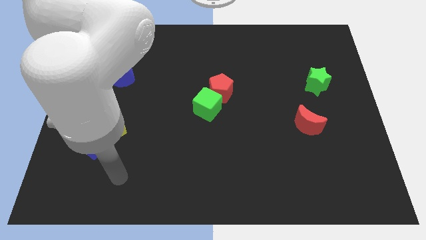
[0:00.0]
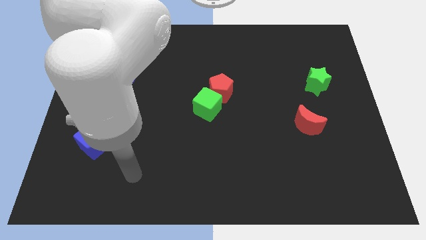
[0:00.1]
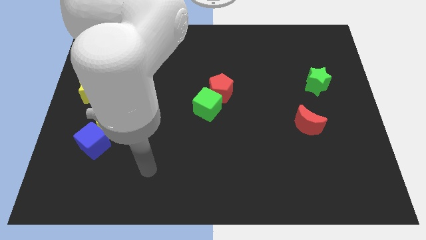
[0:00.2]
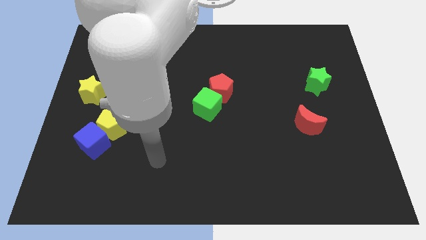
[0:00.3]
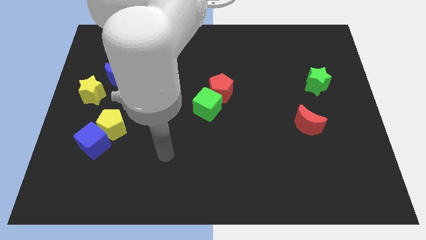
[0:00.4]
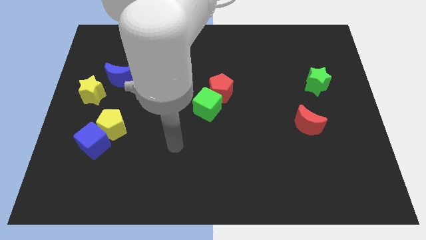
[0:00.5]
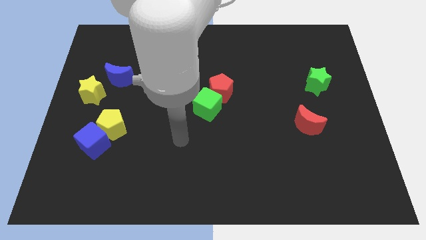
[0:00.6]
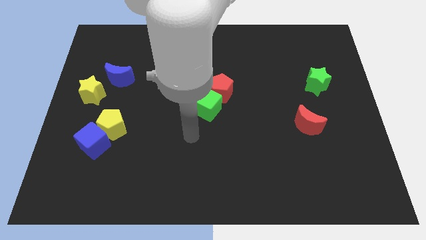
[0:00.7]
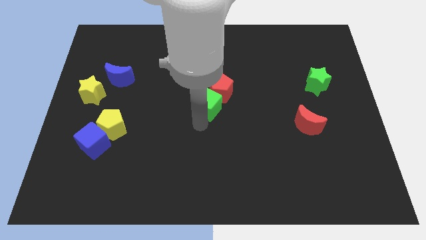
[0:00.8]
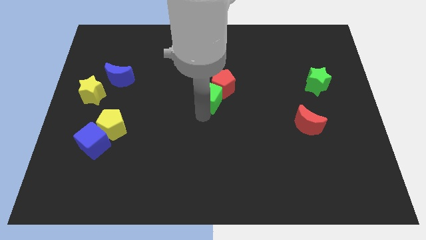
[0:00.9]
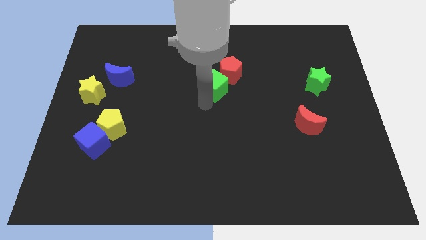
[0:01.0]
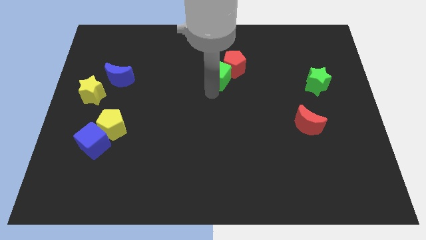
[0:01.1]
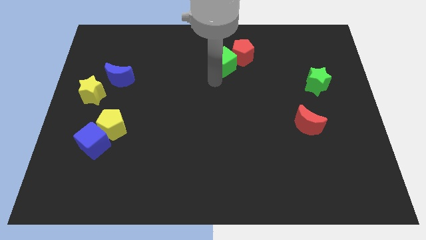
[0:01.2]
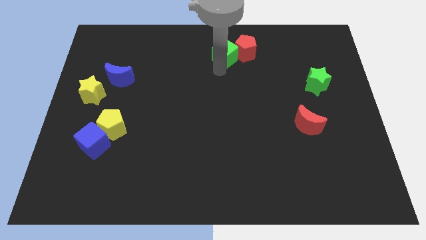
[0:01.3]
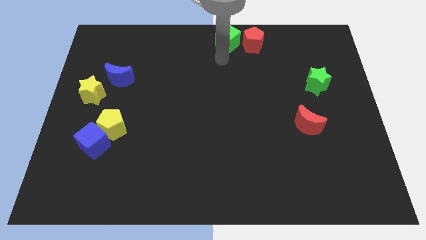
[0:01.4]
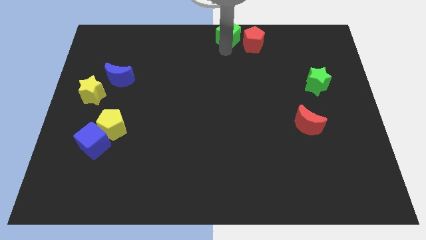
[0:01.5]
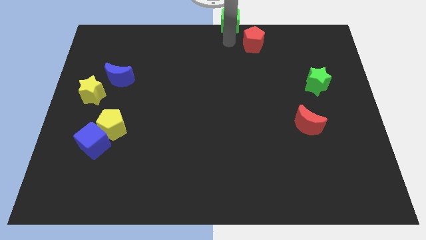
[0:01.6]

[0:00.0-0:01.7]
move the red pentagon away from the green cube

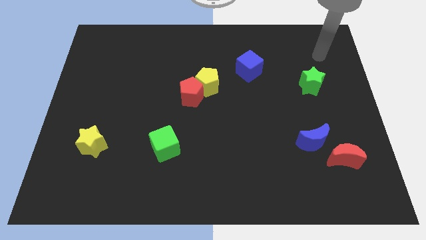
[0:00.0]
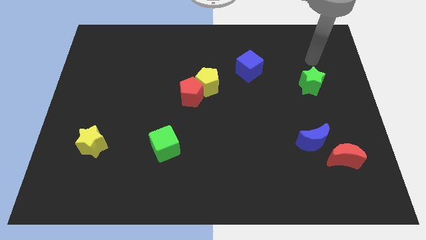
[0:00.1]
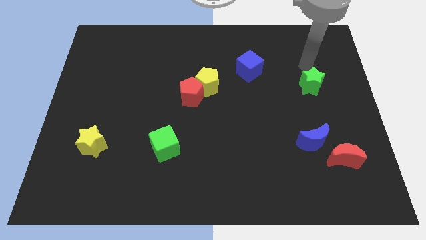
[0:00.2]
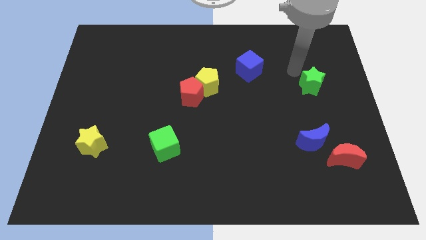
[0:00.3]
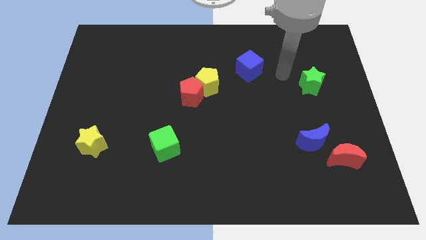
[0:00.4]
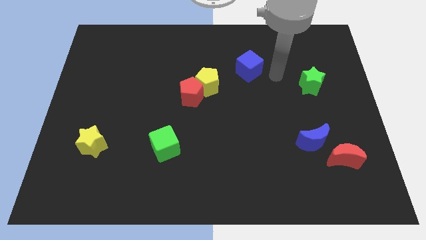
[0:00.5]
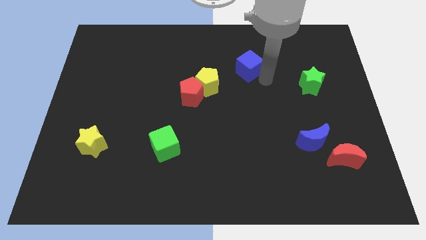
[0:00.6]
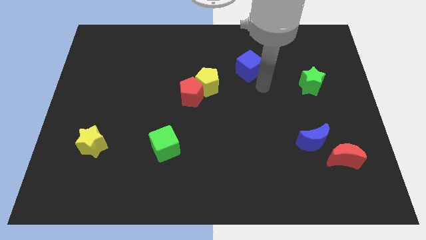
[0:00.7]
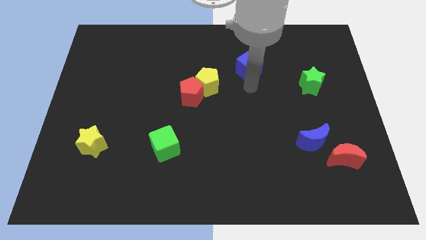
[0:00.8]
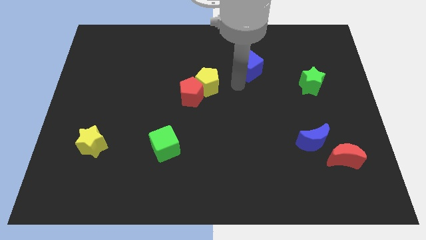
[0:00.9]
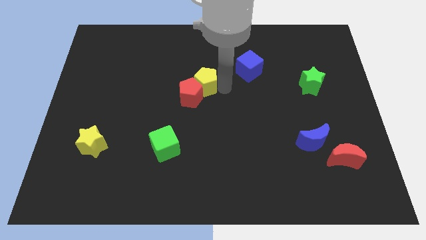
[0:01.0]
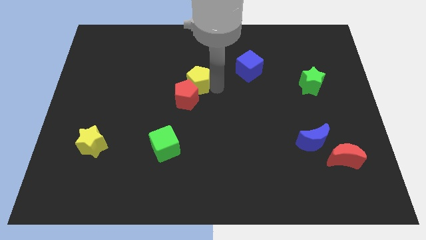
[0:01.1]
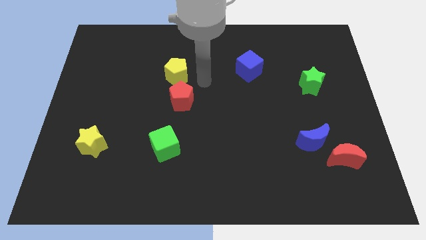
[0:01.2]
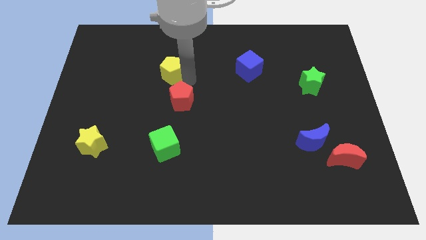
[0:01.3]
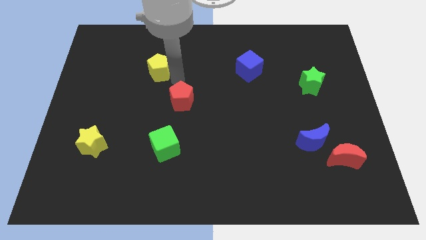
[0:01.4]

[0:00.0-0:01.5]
pull the red pentagon apart from the yellow pentagon

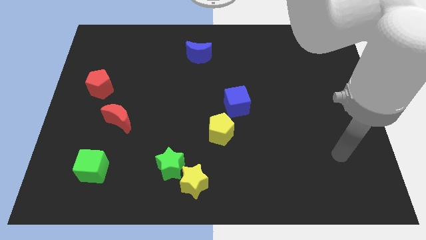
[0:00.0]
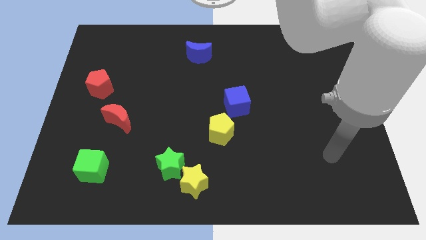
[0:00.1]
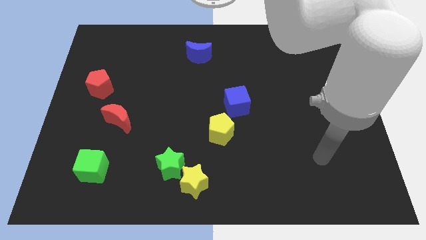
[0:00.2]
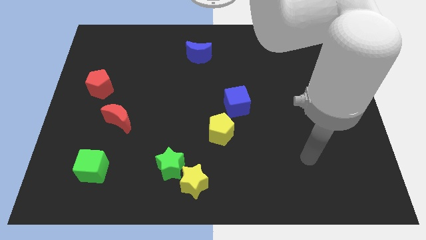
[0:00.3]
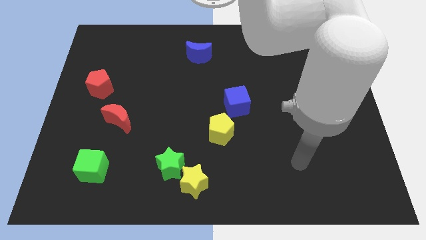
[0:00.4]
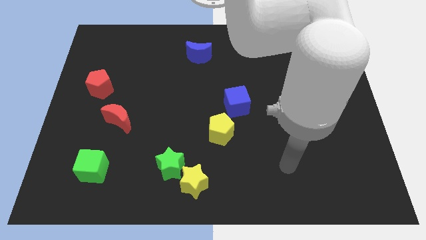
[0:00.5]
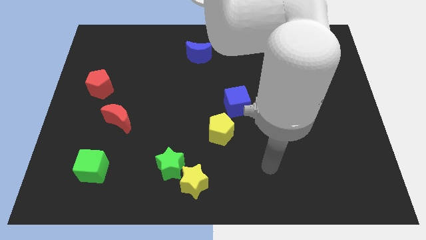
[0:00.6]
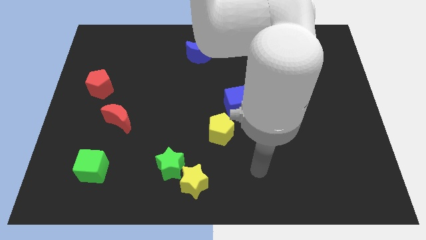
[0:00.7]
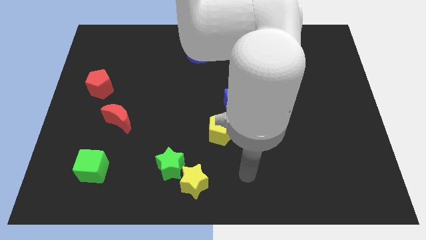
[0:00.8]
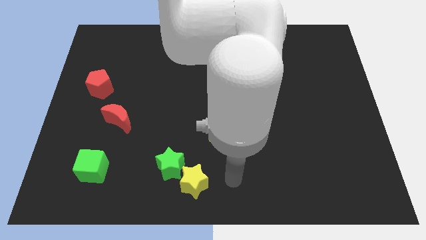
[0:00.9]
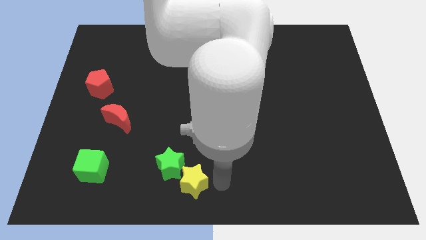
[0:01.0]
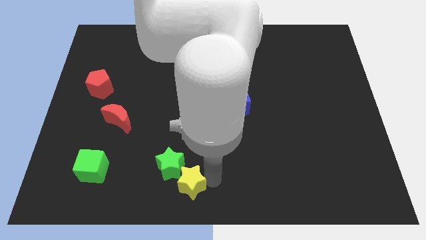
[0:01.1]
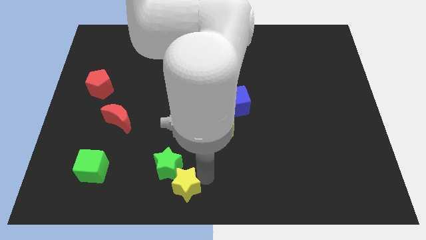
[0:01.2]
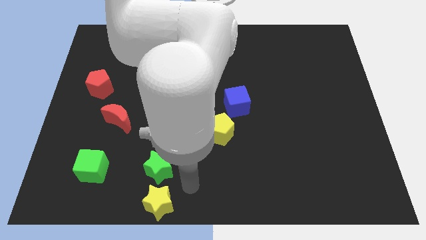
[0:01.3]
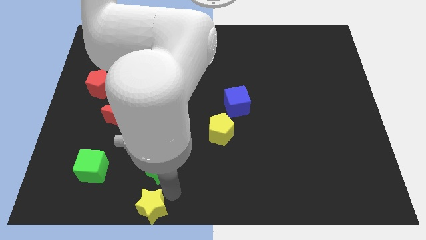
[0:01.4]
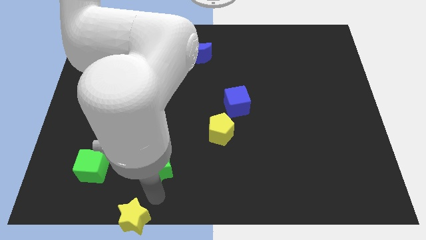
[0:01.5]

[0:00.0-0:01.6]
pull the green star apart from the yellow star

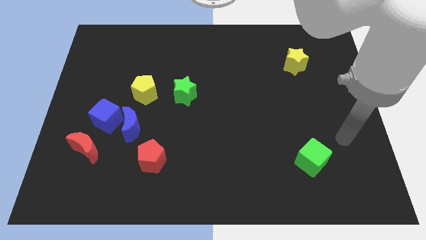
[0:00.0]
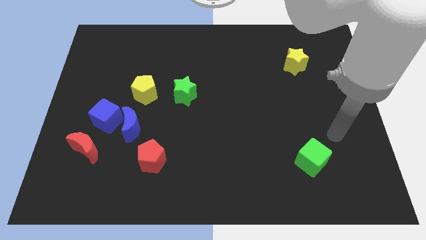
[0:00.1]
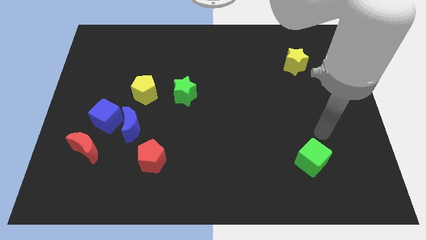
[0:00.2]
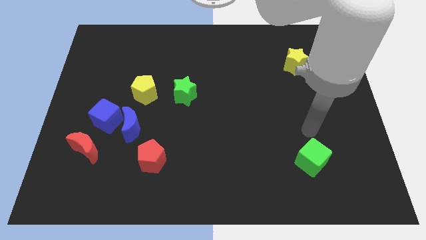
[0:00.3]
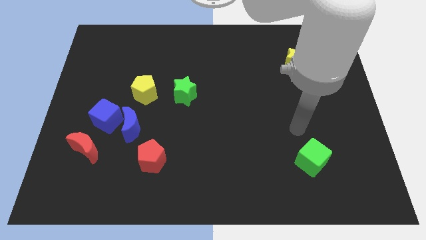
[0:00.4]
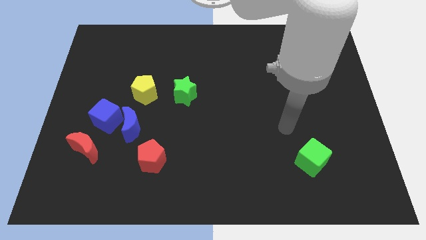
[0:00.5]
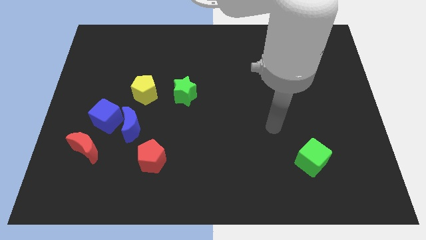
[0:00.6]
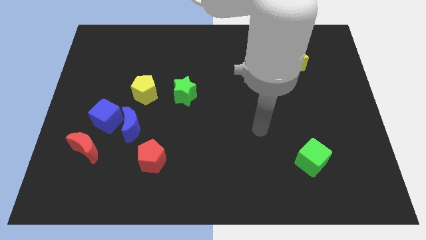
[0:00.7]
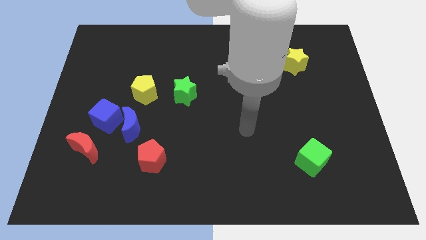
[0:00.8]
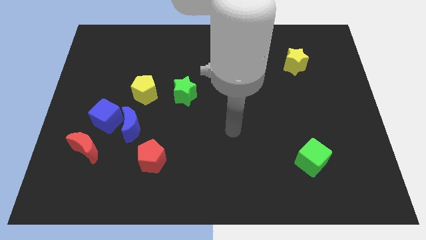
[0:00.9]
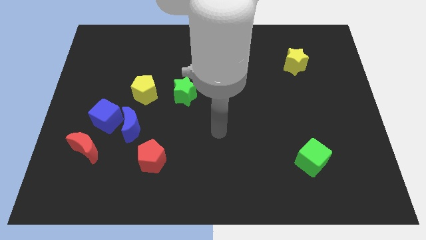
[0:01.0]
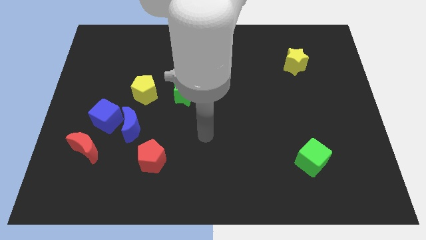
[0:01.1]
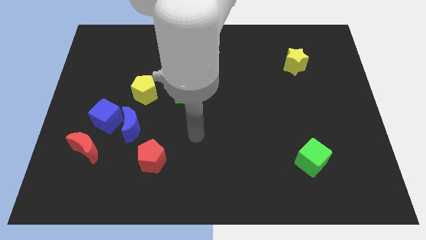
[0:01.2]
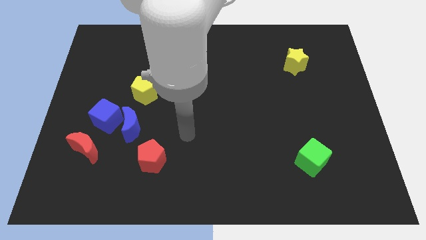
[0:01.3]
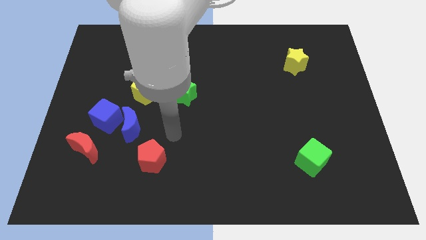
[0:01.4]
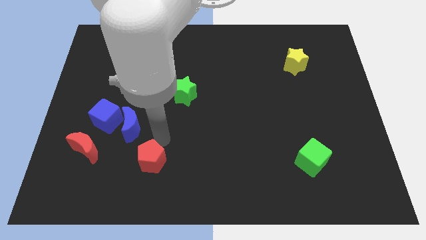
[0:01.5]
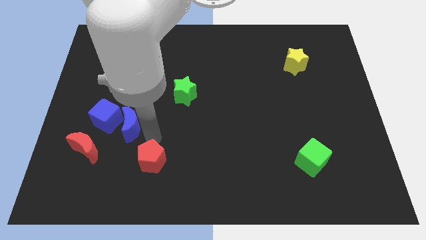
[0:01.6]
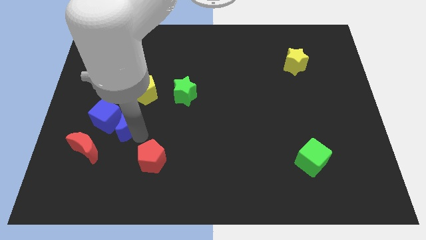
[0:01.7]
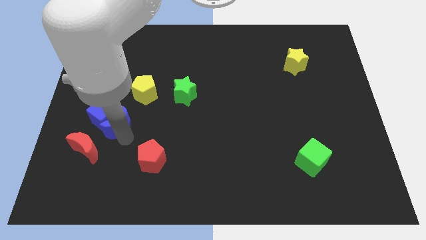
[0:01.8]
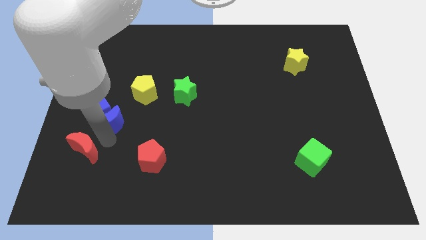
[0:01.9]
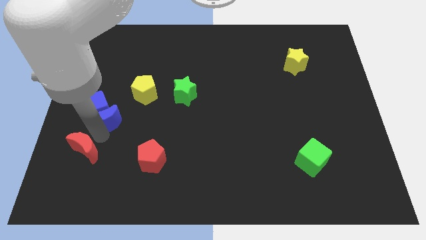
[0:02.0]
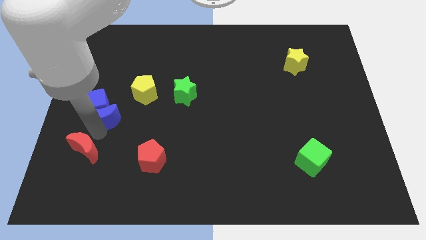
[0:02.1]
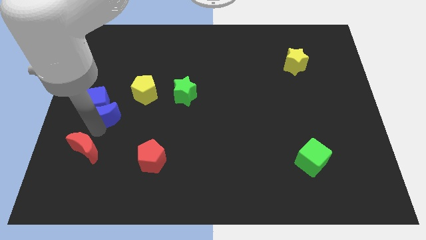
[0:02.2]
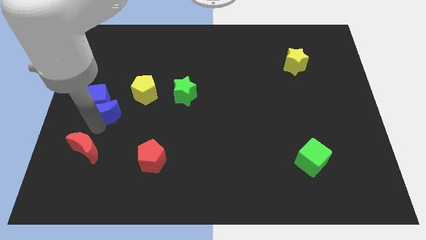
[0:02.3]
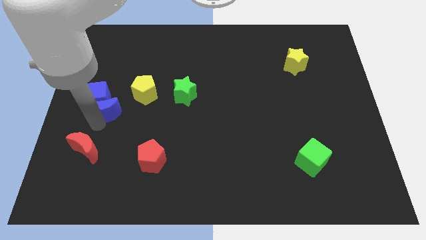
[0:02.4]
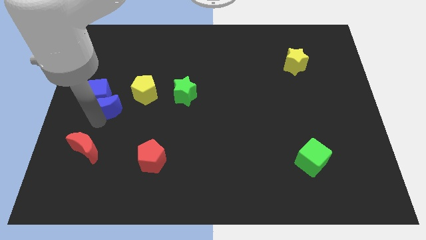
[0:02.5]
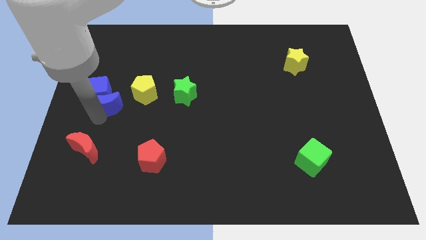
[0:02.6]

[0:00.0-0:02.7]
separate the blue cube from the blue moon and red moon

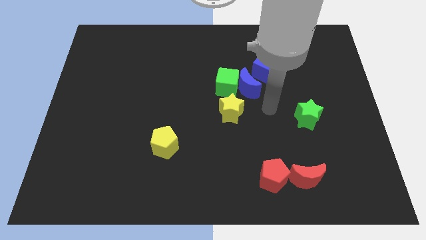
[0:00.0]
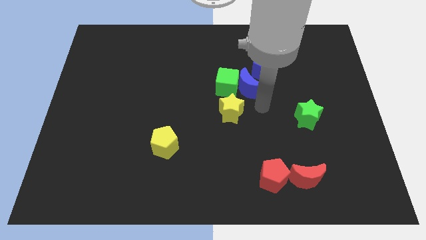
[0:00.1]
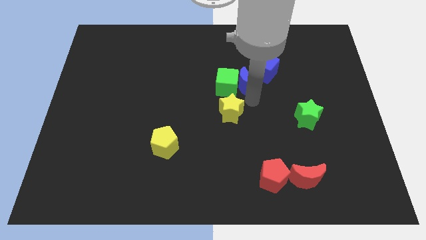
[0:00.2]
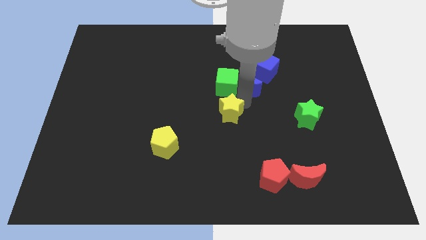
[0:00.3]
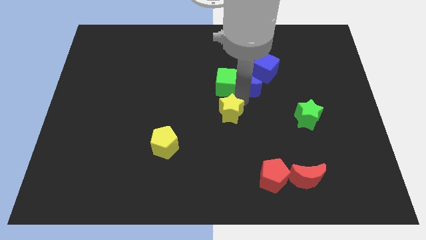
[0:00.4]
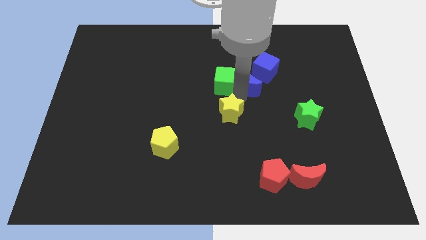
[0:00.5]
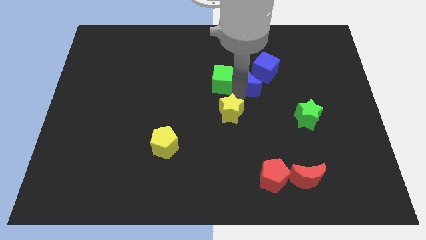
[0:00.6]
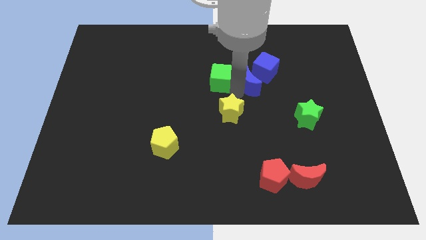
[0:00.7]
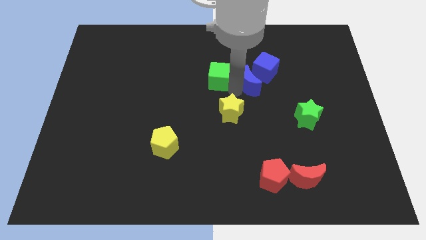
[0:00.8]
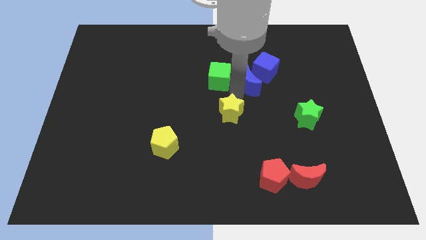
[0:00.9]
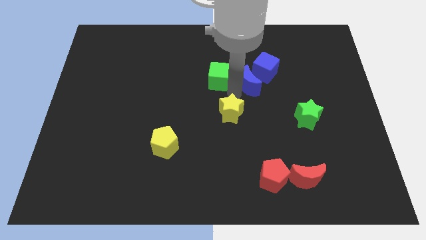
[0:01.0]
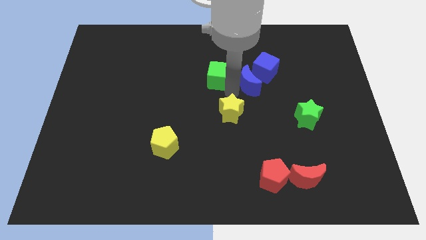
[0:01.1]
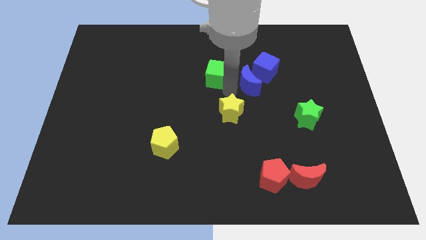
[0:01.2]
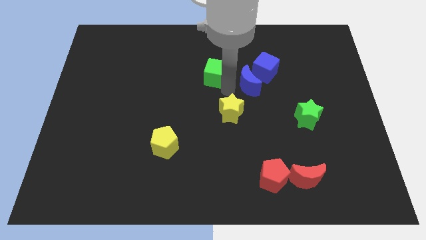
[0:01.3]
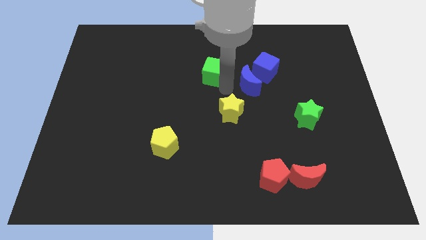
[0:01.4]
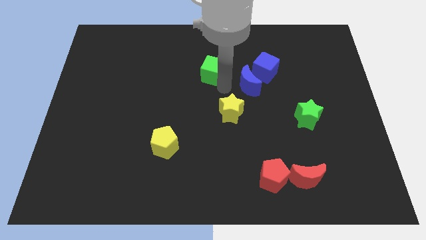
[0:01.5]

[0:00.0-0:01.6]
pull the green cube apart from the blue moon and yellow star

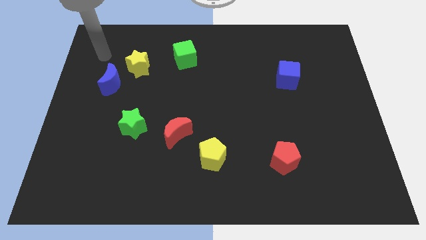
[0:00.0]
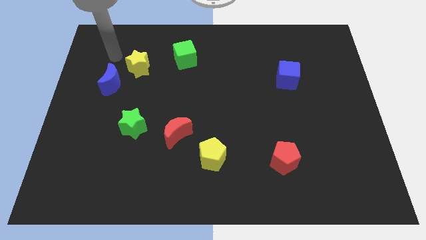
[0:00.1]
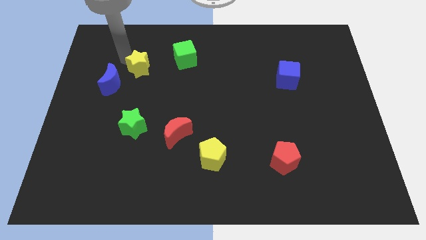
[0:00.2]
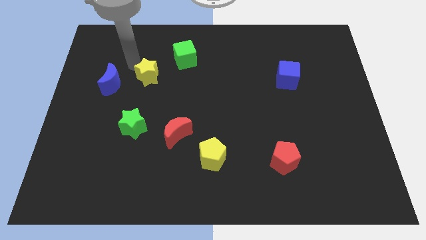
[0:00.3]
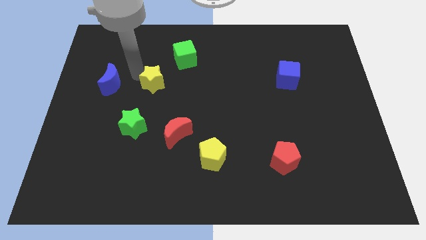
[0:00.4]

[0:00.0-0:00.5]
pull the blue moon apart from the yellow star
